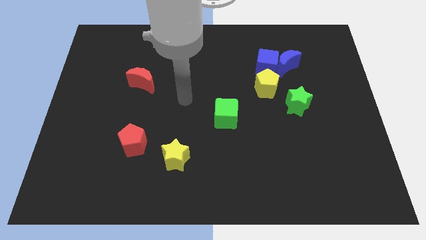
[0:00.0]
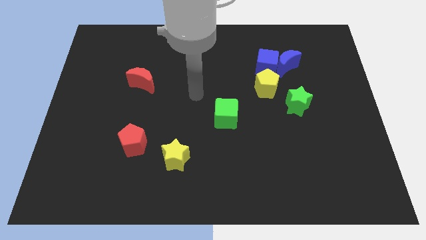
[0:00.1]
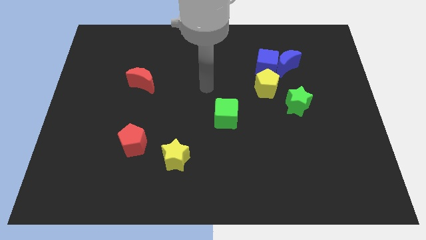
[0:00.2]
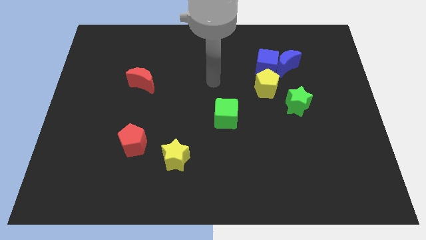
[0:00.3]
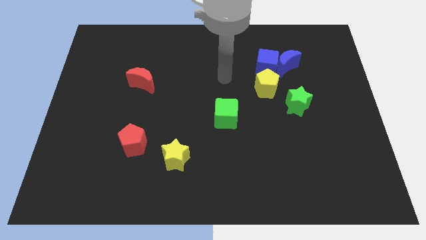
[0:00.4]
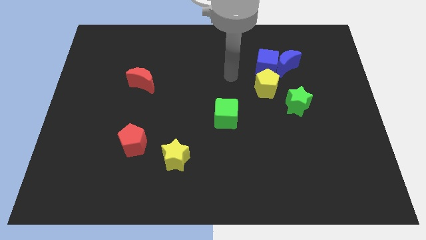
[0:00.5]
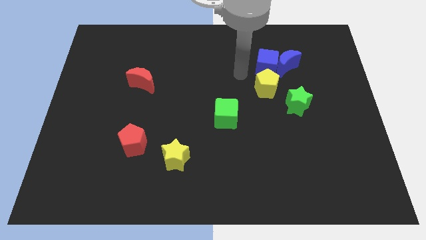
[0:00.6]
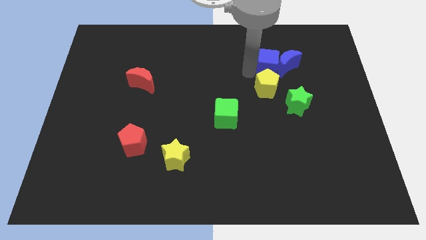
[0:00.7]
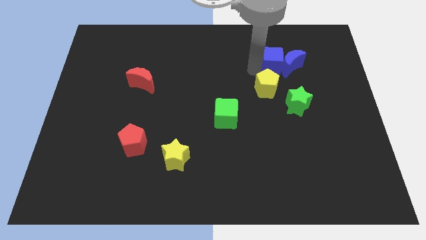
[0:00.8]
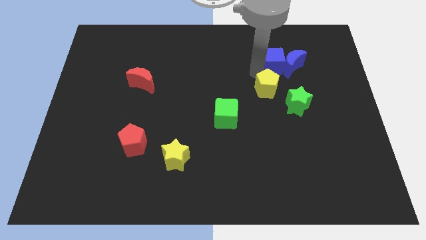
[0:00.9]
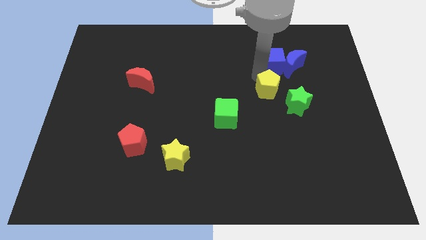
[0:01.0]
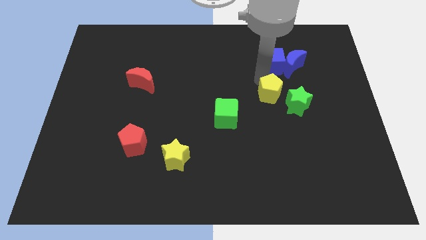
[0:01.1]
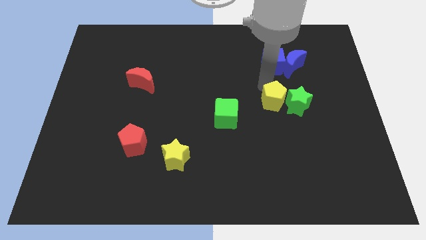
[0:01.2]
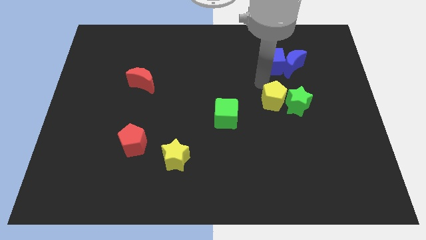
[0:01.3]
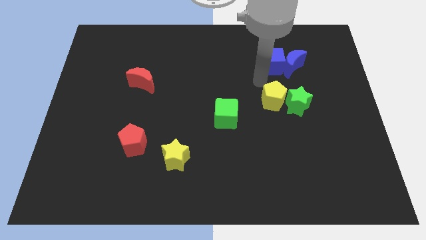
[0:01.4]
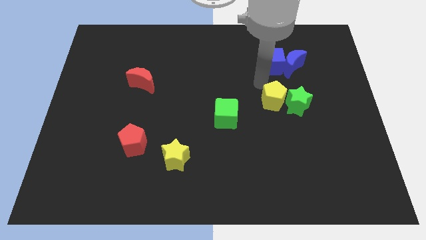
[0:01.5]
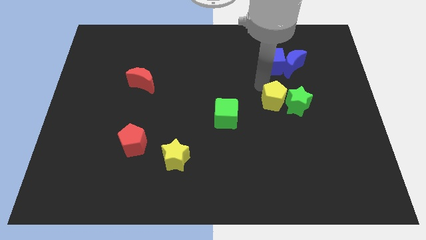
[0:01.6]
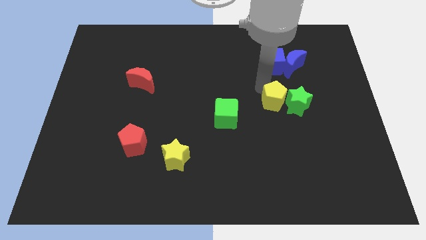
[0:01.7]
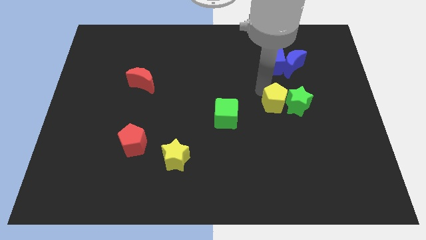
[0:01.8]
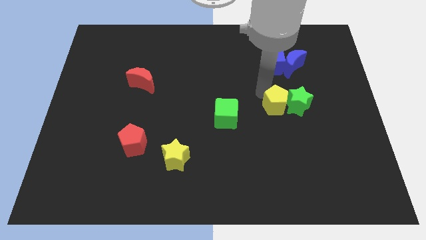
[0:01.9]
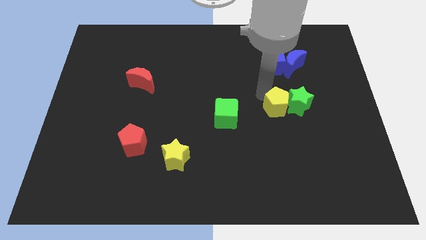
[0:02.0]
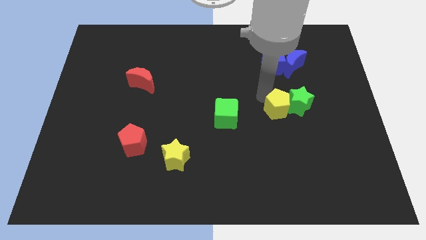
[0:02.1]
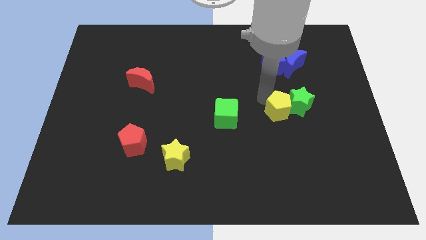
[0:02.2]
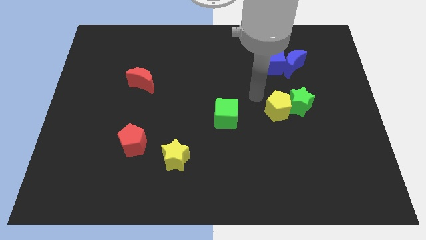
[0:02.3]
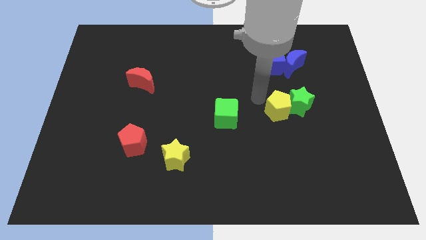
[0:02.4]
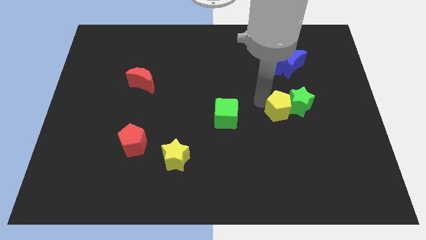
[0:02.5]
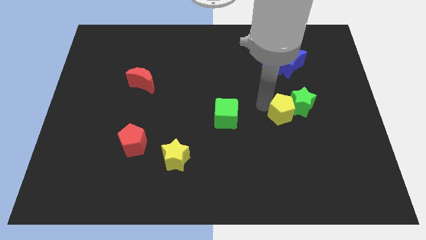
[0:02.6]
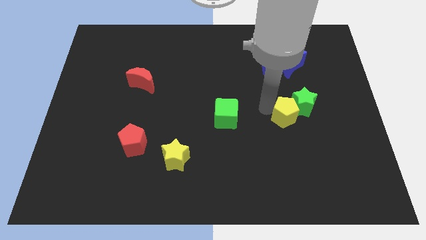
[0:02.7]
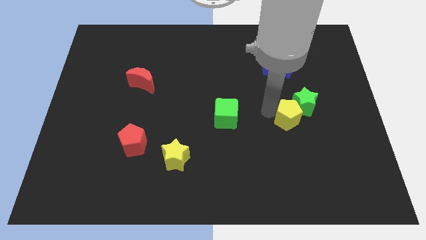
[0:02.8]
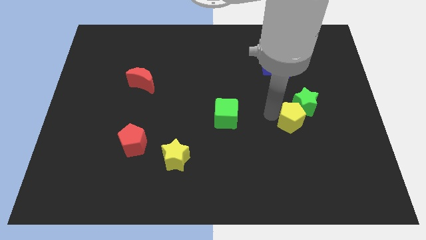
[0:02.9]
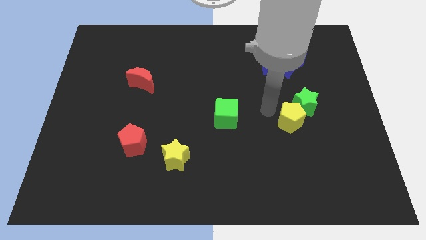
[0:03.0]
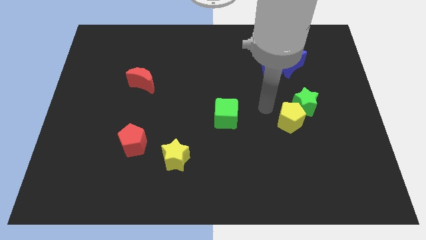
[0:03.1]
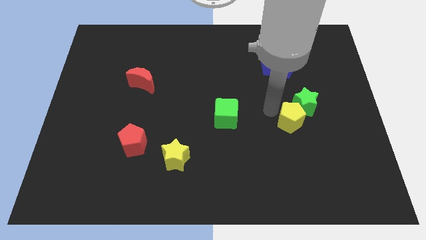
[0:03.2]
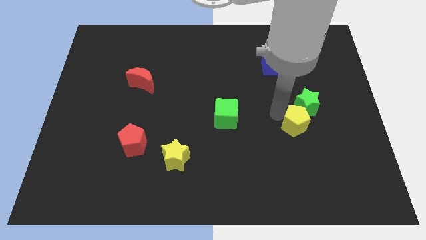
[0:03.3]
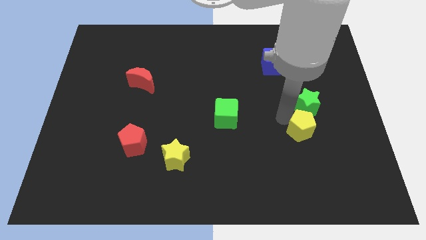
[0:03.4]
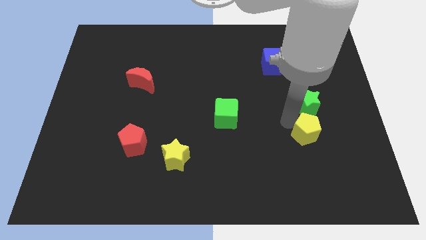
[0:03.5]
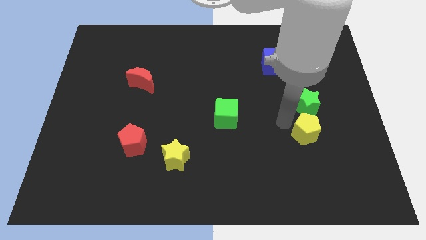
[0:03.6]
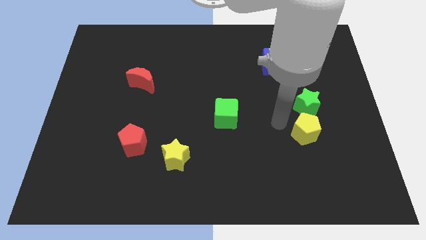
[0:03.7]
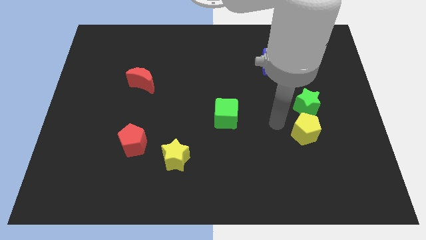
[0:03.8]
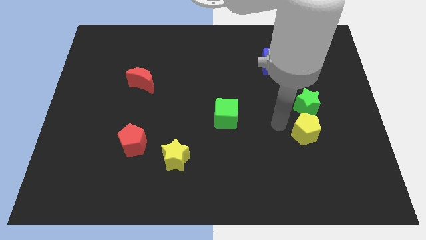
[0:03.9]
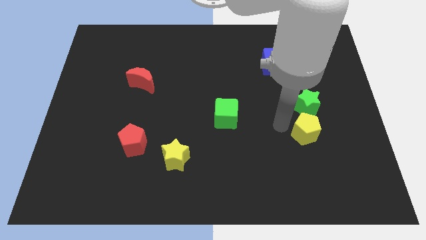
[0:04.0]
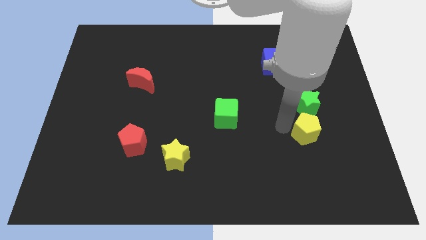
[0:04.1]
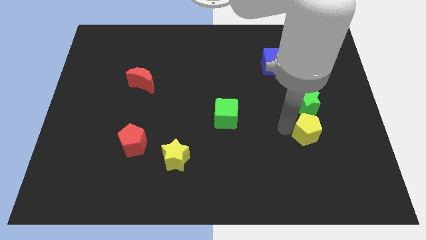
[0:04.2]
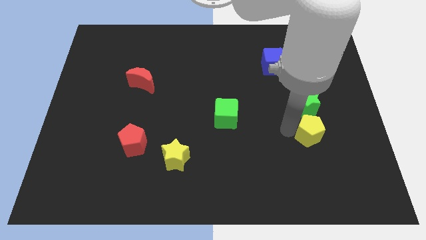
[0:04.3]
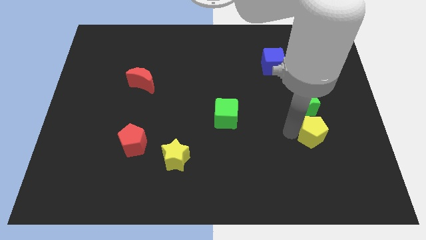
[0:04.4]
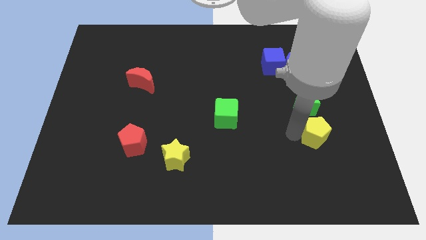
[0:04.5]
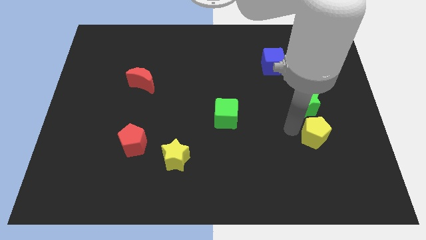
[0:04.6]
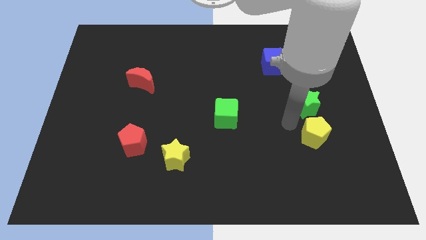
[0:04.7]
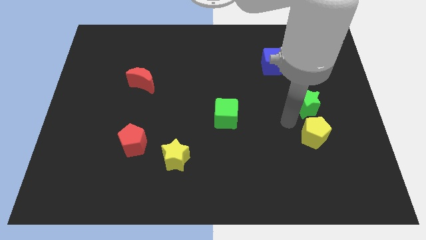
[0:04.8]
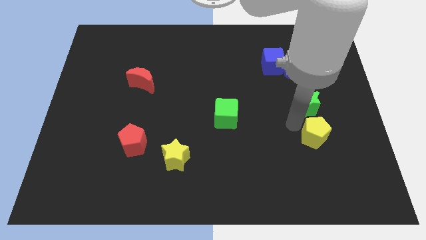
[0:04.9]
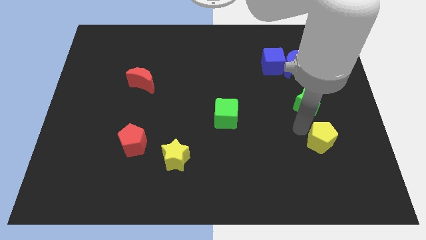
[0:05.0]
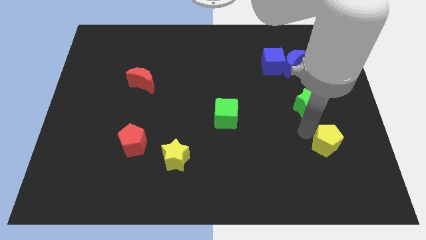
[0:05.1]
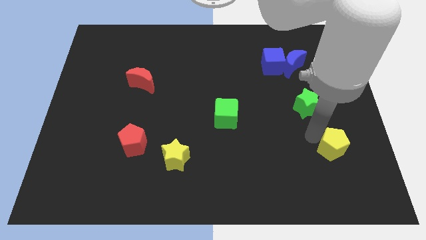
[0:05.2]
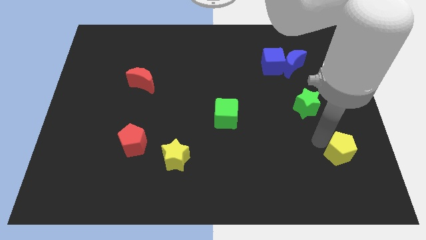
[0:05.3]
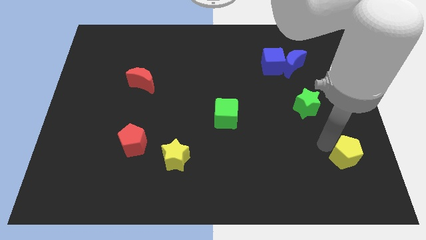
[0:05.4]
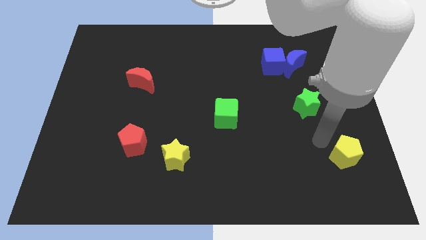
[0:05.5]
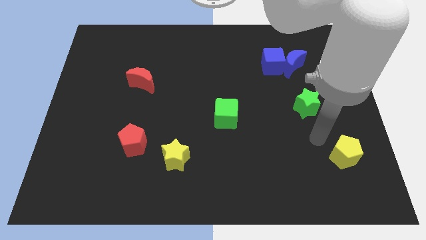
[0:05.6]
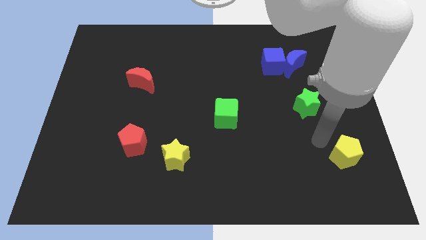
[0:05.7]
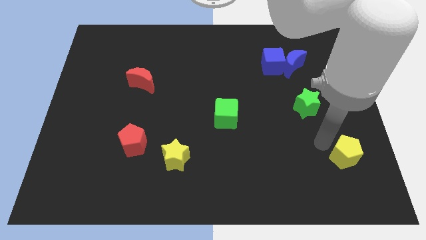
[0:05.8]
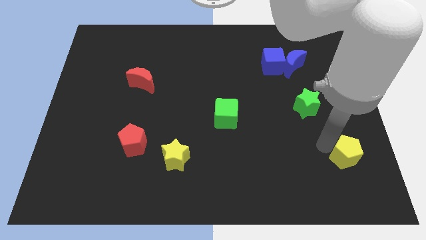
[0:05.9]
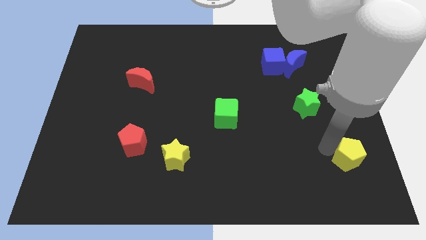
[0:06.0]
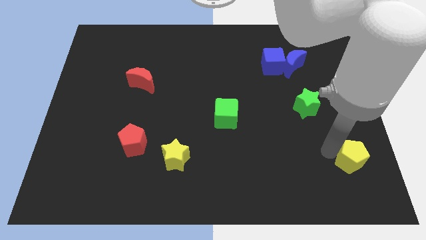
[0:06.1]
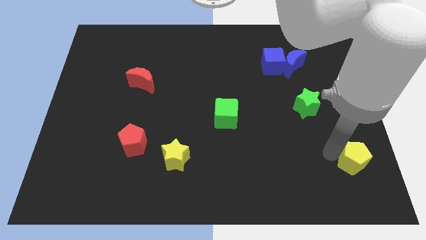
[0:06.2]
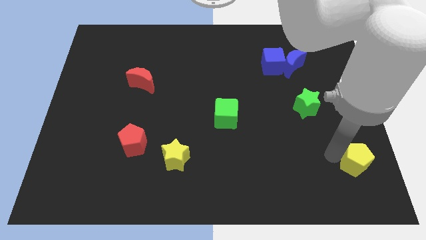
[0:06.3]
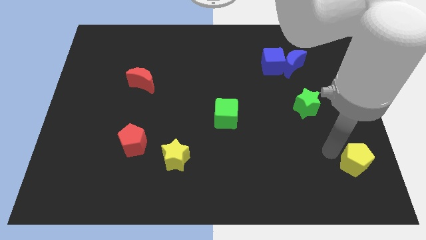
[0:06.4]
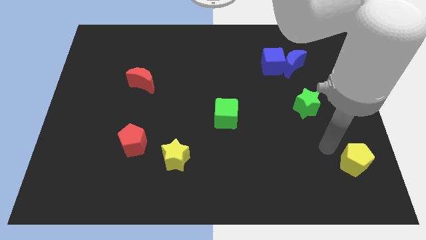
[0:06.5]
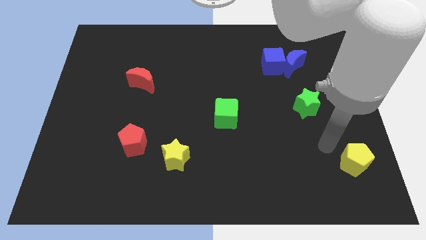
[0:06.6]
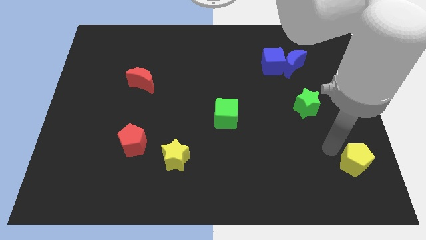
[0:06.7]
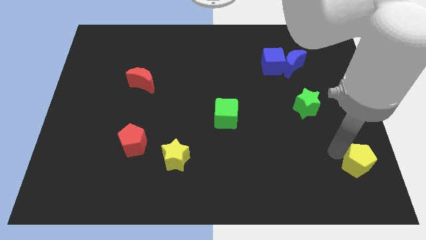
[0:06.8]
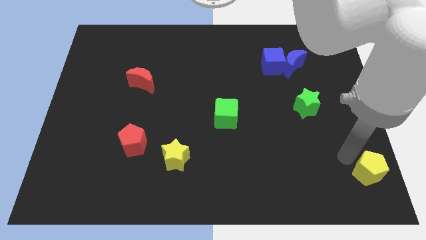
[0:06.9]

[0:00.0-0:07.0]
move the yellow pentagon to the bottom right corner

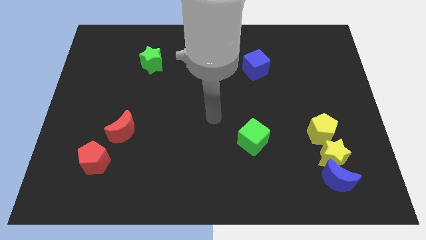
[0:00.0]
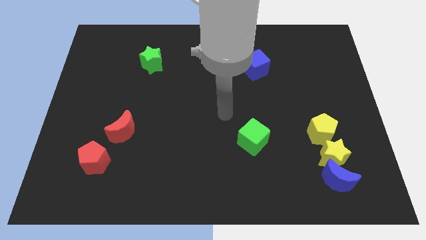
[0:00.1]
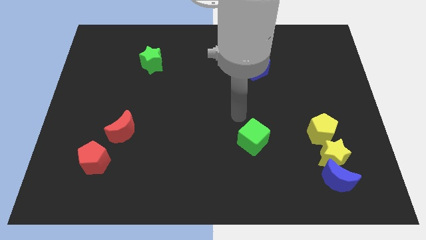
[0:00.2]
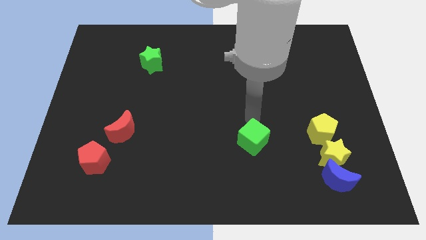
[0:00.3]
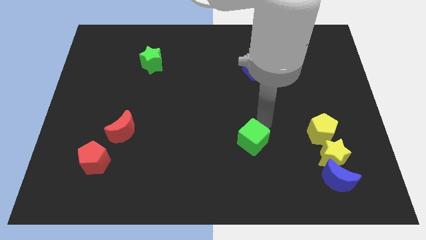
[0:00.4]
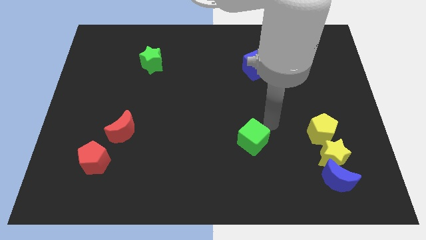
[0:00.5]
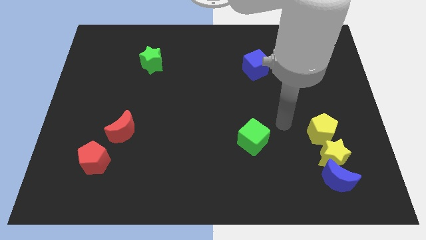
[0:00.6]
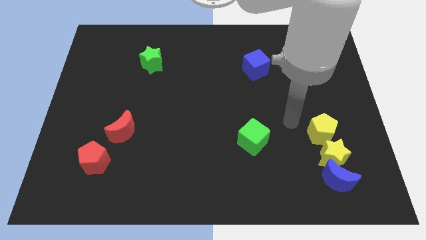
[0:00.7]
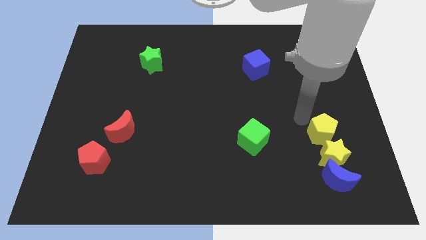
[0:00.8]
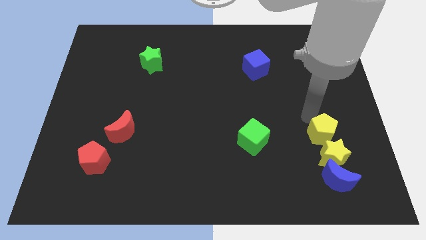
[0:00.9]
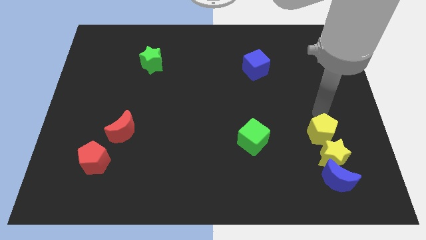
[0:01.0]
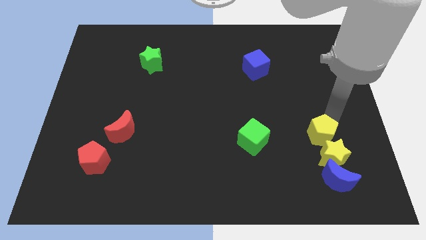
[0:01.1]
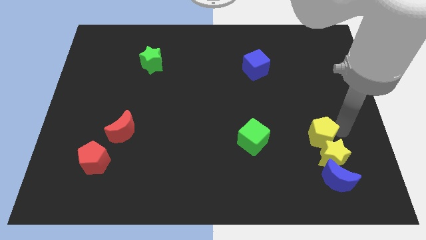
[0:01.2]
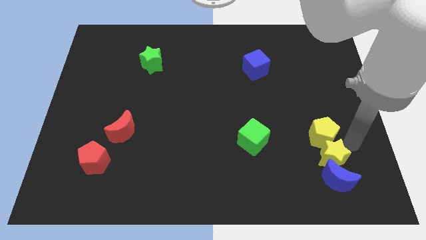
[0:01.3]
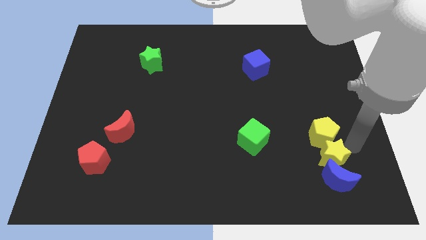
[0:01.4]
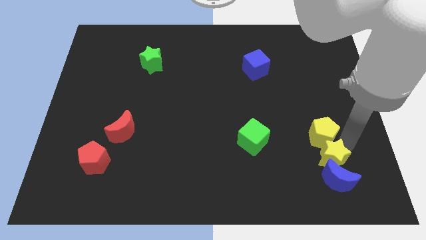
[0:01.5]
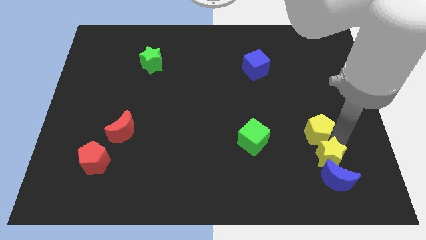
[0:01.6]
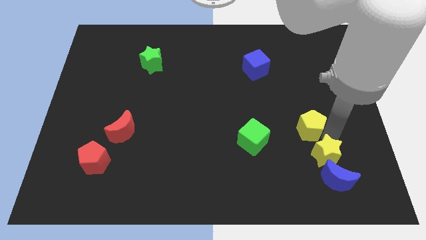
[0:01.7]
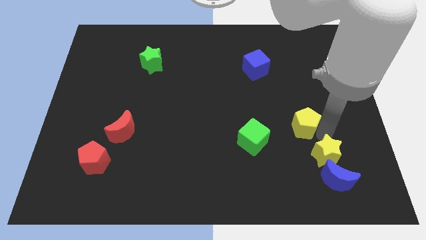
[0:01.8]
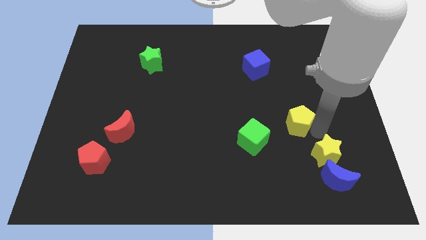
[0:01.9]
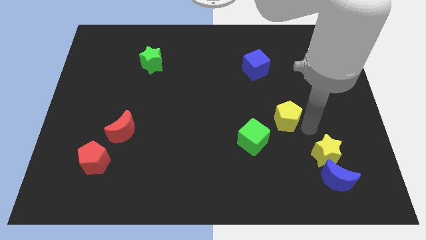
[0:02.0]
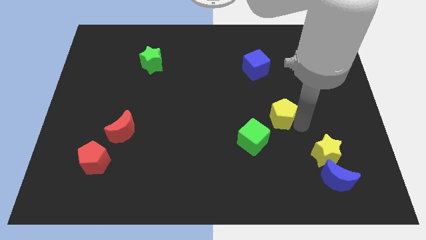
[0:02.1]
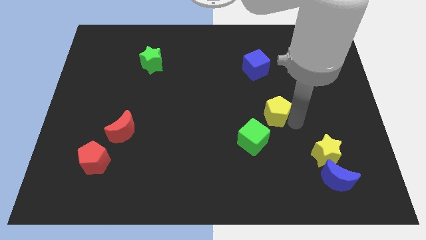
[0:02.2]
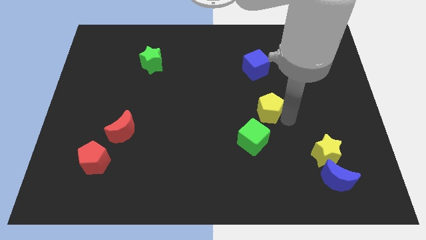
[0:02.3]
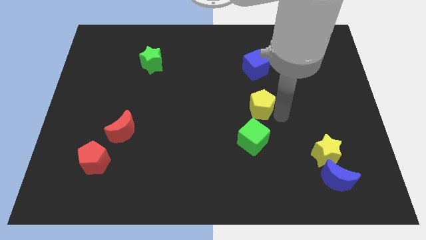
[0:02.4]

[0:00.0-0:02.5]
slide the yellow pentagon to the middle of the board
